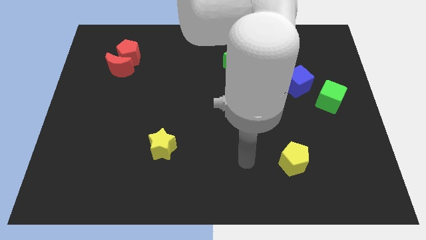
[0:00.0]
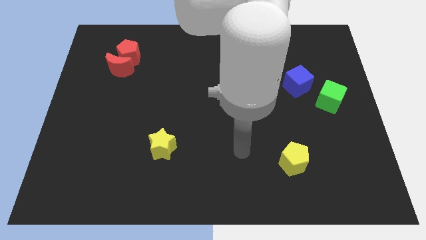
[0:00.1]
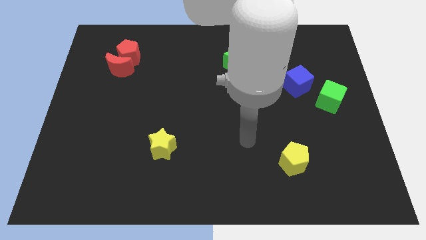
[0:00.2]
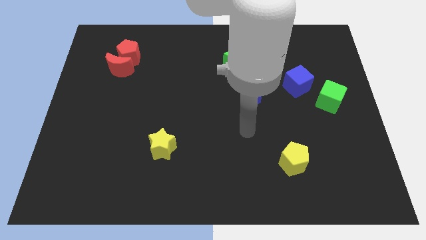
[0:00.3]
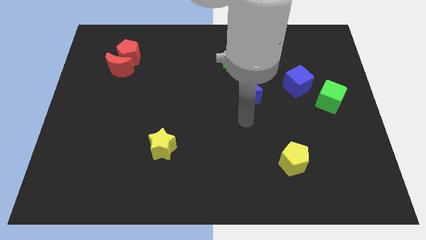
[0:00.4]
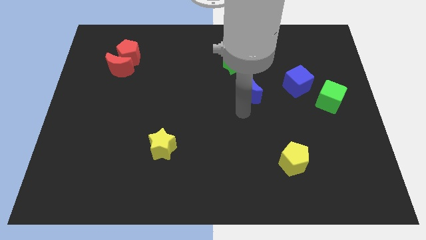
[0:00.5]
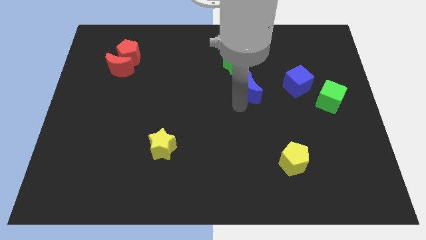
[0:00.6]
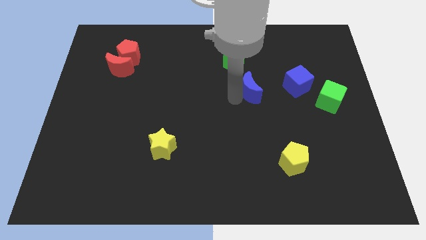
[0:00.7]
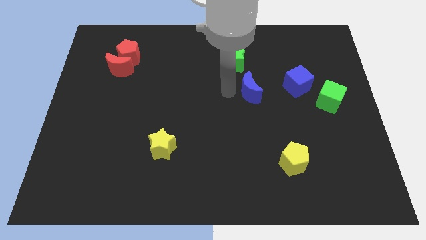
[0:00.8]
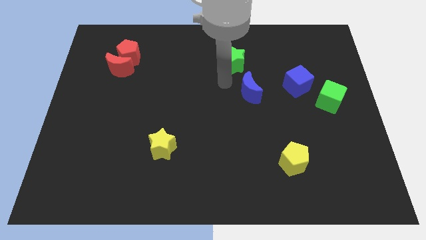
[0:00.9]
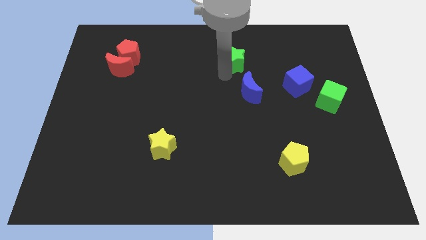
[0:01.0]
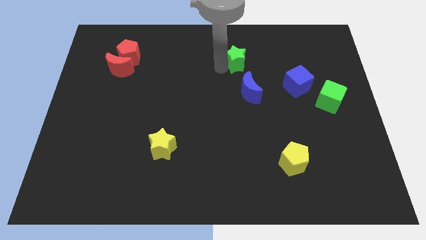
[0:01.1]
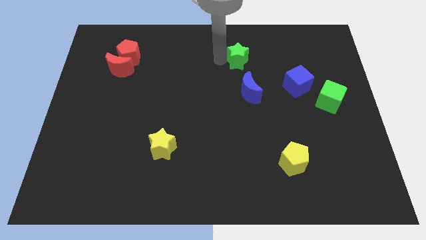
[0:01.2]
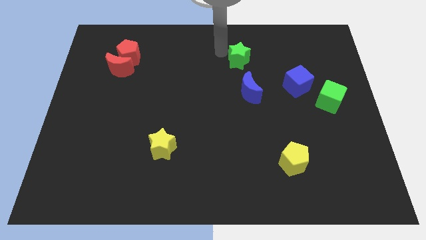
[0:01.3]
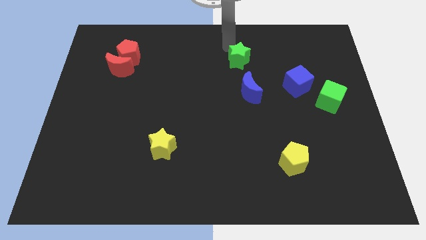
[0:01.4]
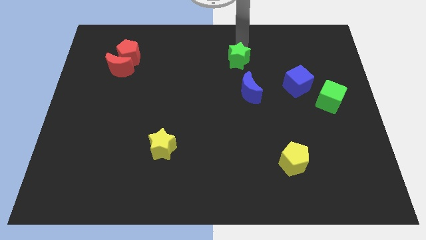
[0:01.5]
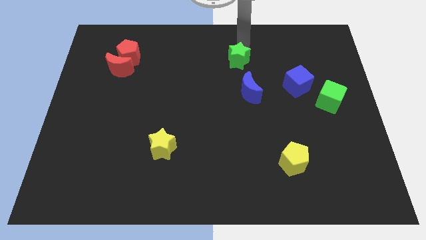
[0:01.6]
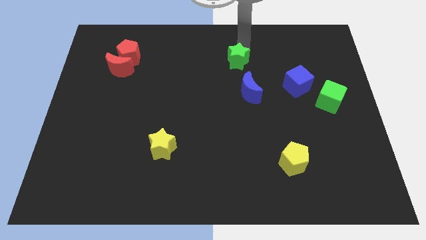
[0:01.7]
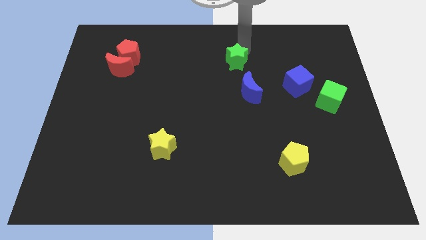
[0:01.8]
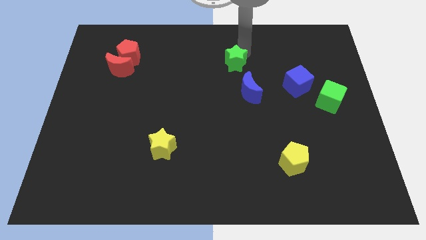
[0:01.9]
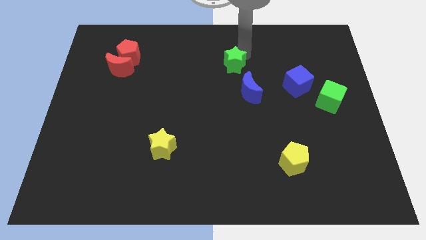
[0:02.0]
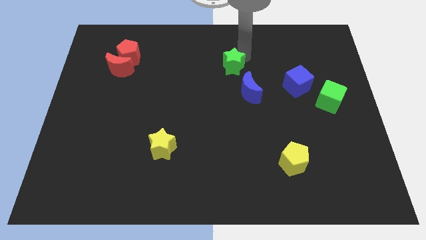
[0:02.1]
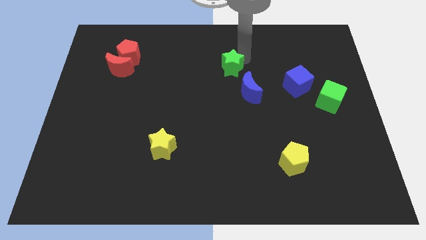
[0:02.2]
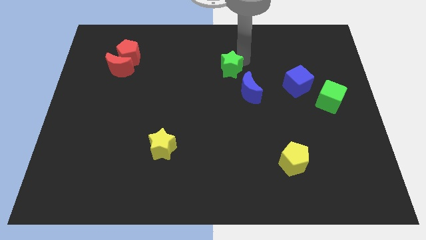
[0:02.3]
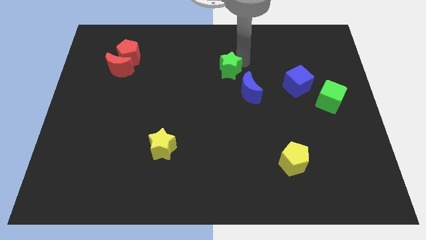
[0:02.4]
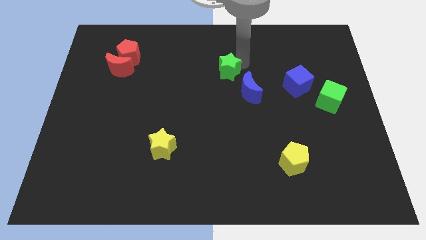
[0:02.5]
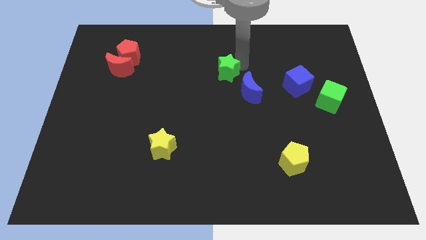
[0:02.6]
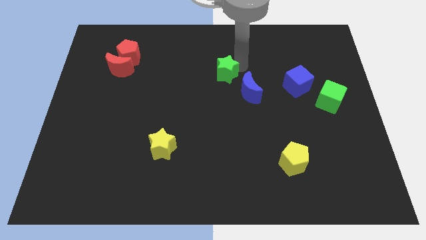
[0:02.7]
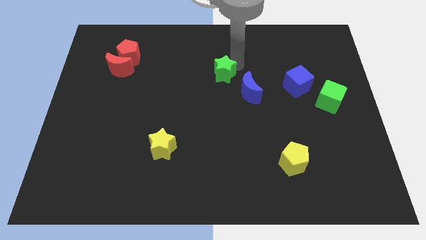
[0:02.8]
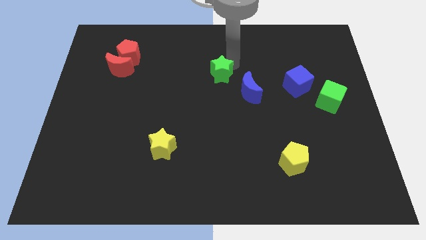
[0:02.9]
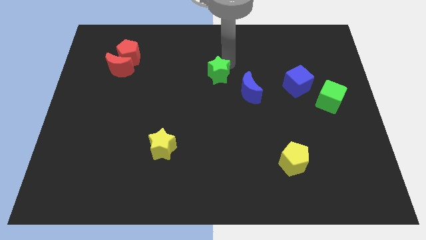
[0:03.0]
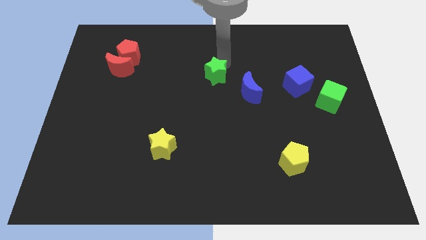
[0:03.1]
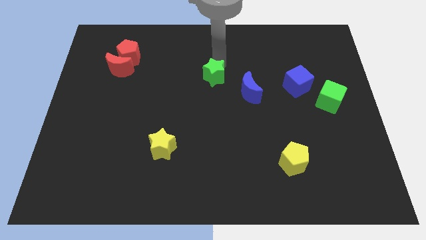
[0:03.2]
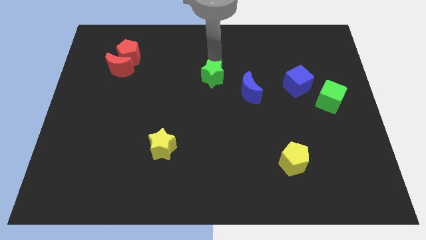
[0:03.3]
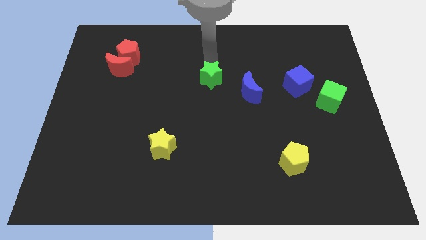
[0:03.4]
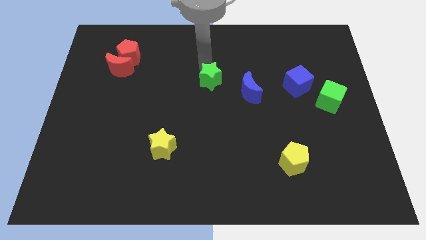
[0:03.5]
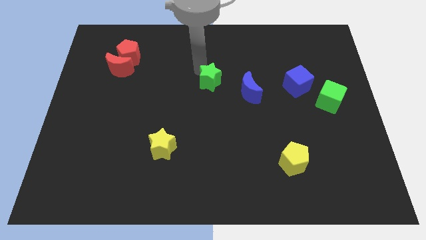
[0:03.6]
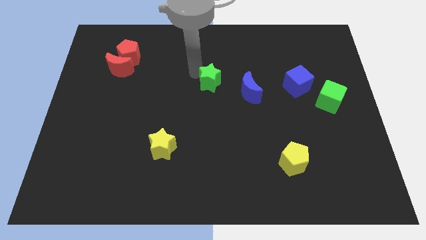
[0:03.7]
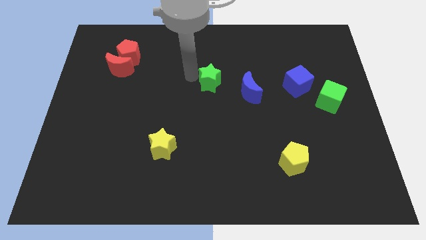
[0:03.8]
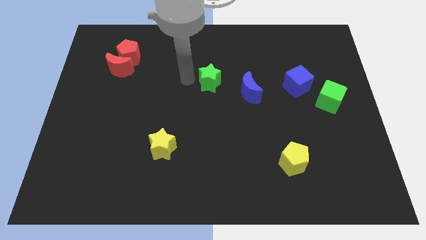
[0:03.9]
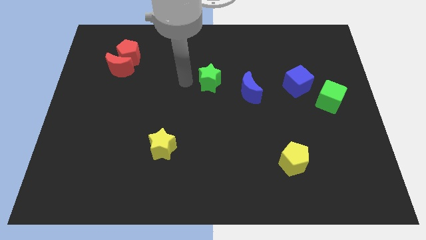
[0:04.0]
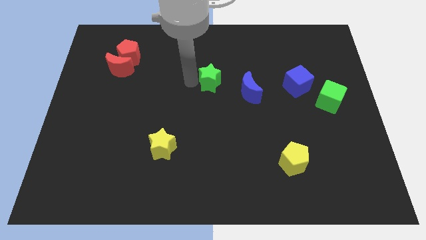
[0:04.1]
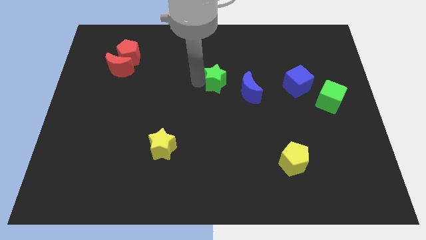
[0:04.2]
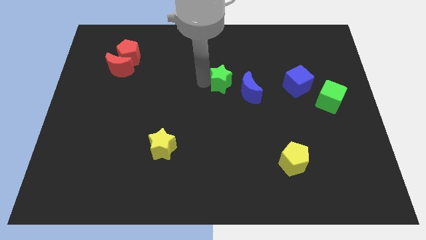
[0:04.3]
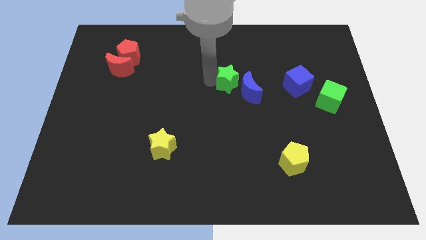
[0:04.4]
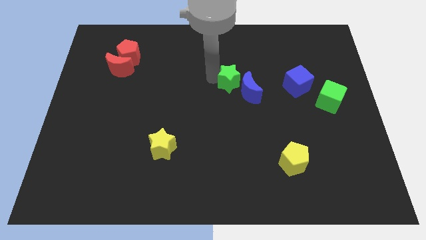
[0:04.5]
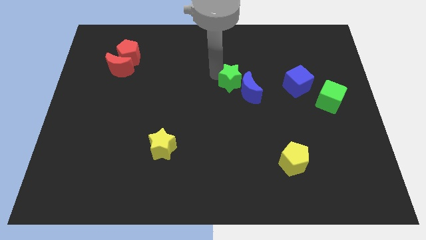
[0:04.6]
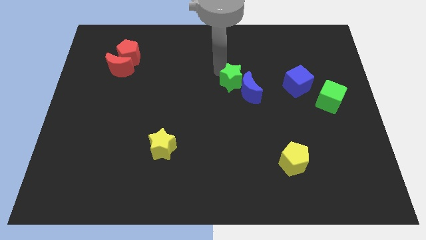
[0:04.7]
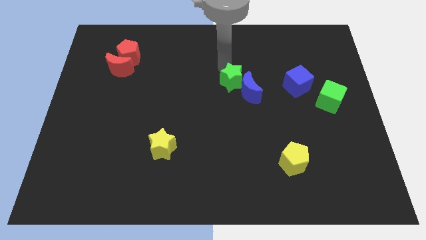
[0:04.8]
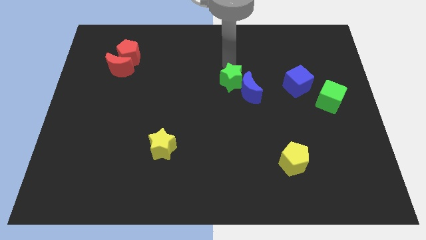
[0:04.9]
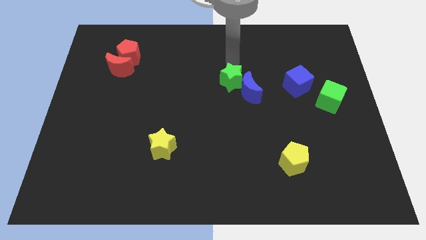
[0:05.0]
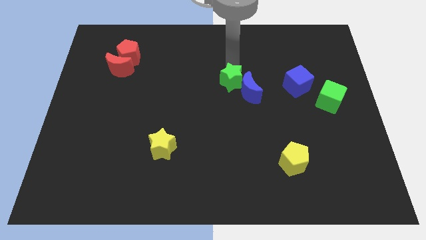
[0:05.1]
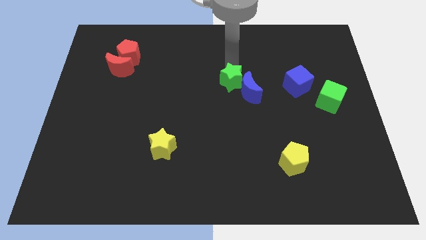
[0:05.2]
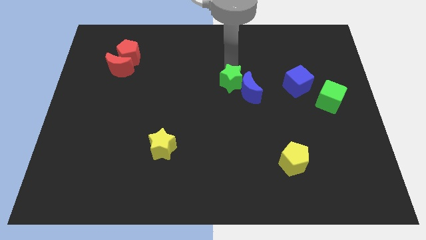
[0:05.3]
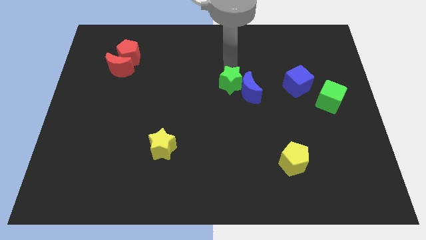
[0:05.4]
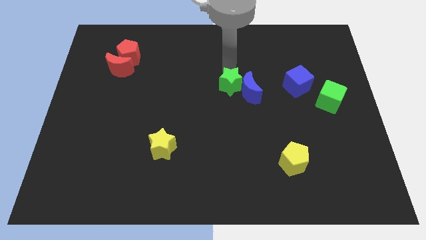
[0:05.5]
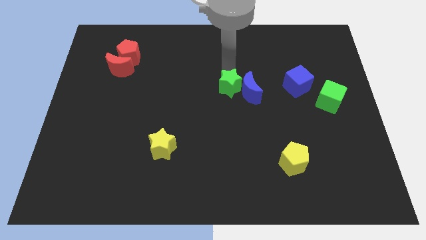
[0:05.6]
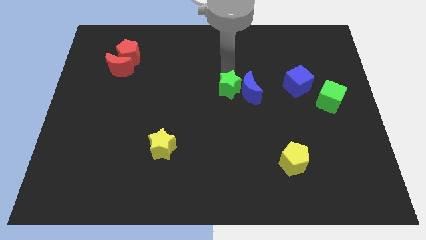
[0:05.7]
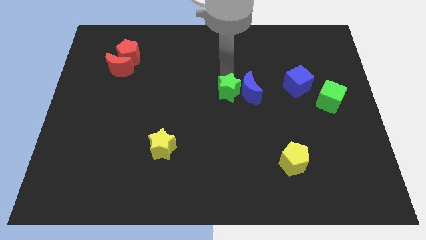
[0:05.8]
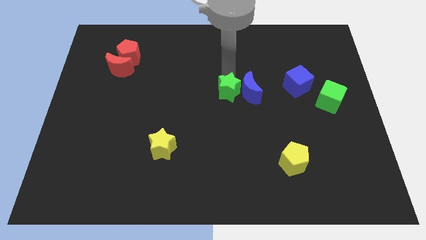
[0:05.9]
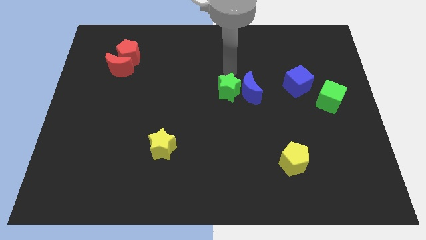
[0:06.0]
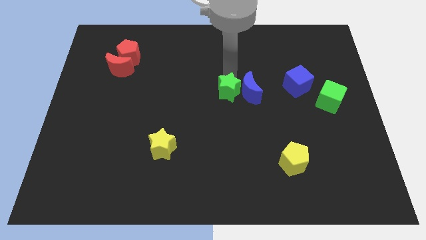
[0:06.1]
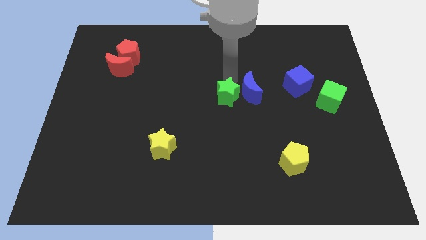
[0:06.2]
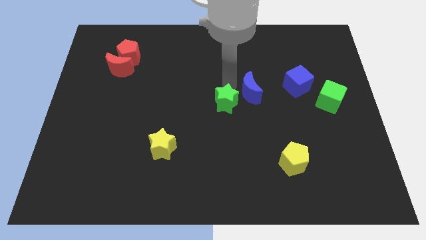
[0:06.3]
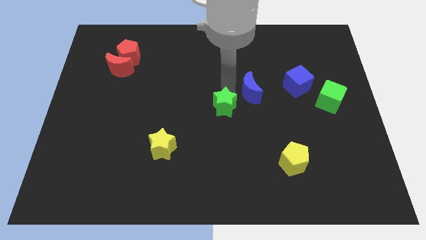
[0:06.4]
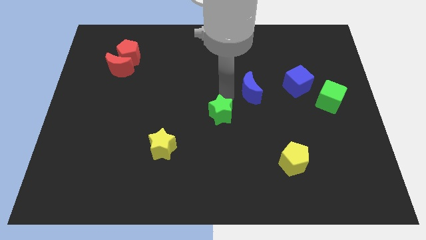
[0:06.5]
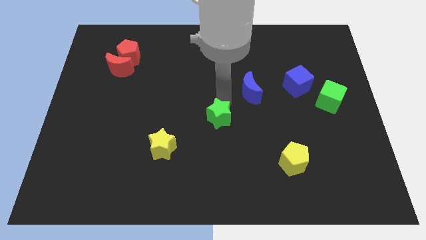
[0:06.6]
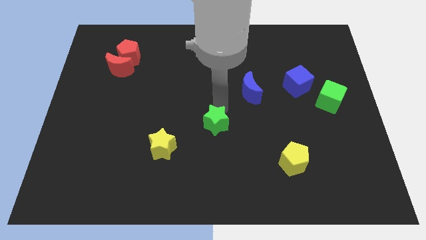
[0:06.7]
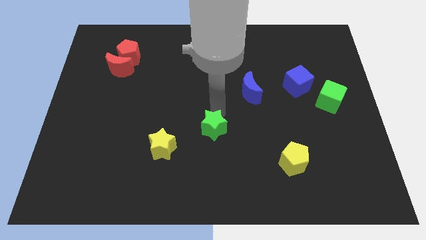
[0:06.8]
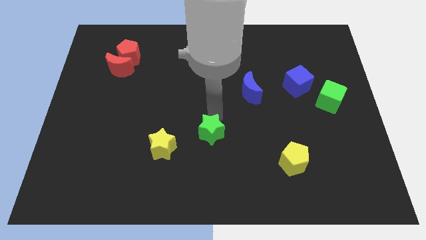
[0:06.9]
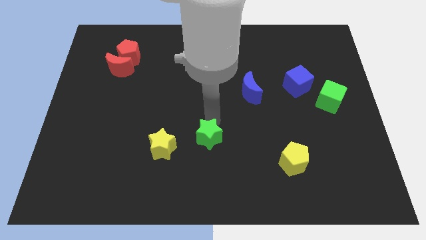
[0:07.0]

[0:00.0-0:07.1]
slide the green star downwards

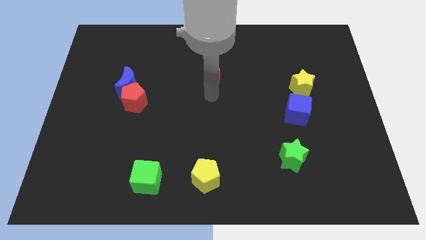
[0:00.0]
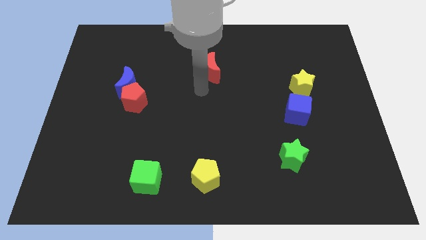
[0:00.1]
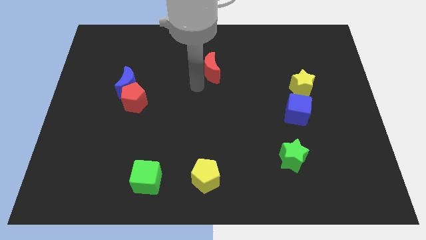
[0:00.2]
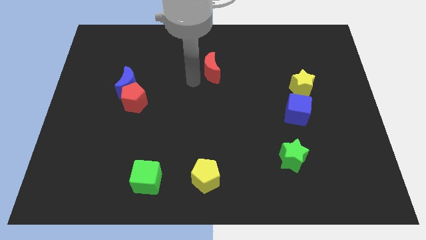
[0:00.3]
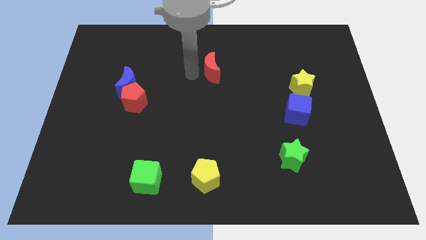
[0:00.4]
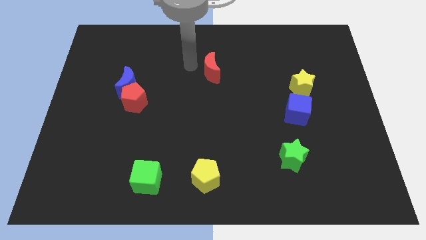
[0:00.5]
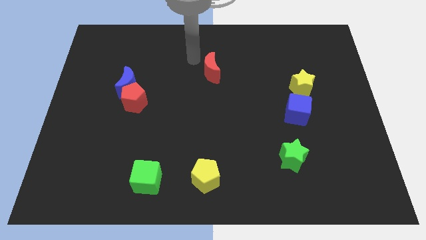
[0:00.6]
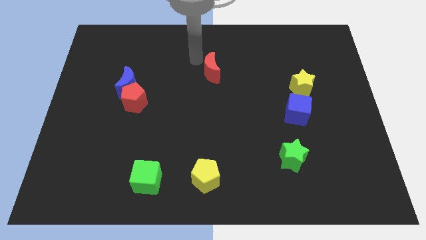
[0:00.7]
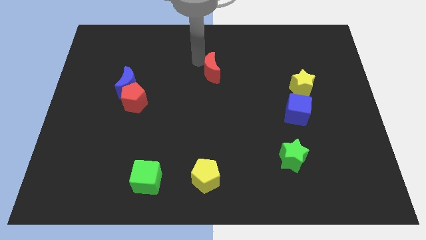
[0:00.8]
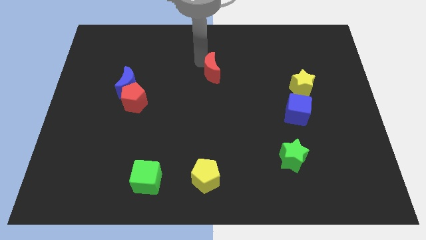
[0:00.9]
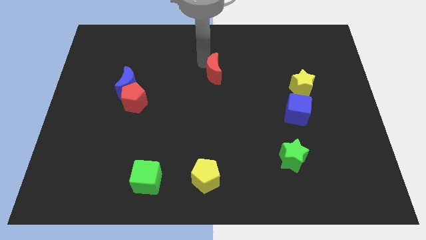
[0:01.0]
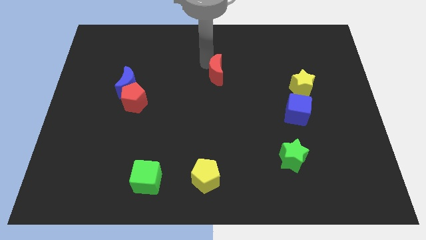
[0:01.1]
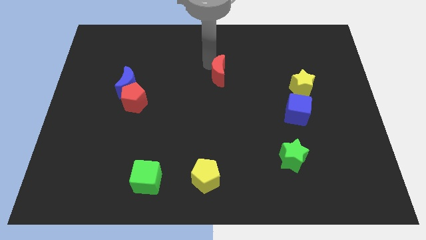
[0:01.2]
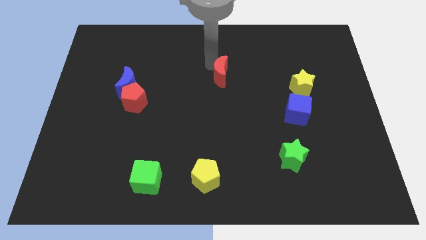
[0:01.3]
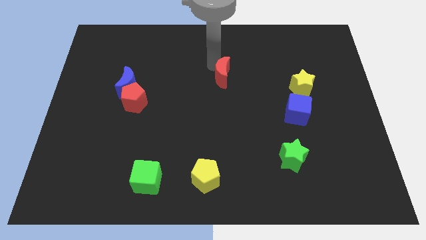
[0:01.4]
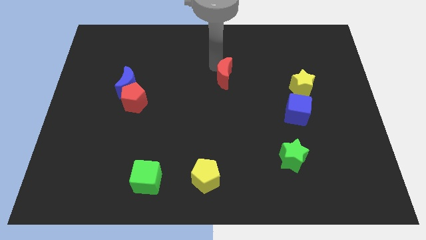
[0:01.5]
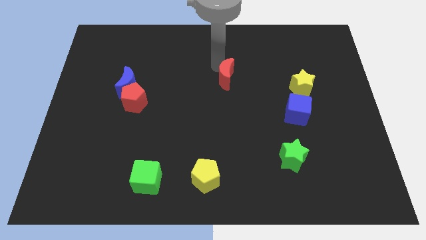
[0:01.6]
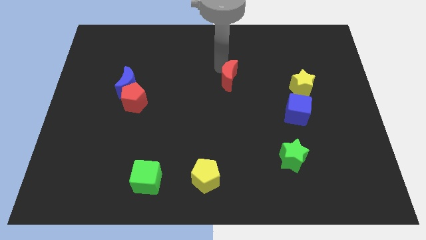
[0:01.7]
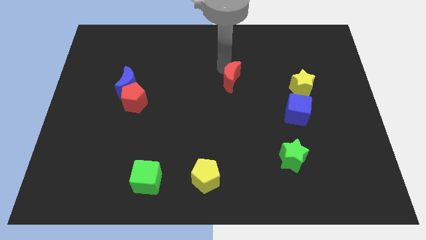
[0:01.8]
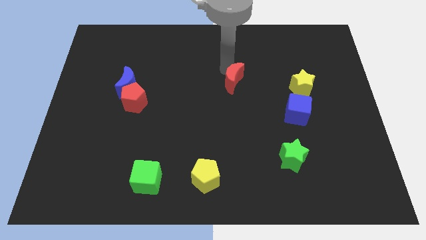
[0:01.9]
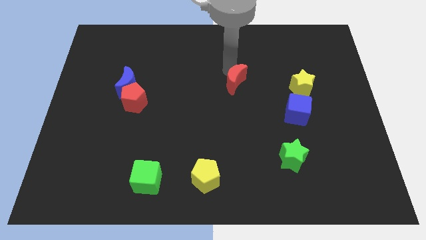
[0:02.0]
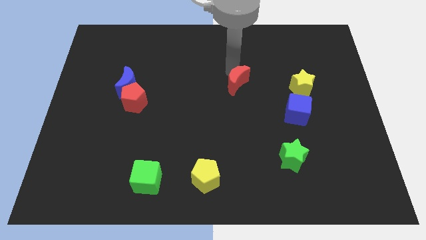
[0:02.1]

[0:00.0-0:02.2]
move the red moon somewhat down and then right
